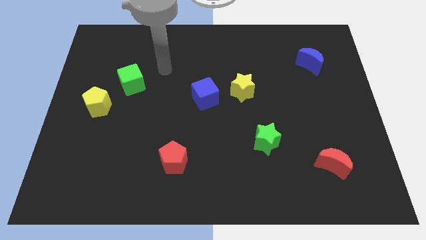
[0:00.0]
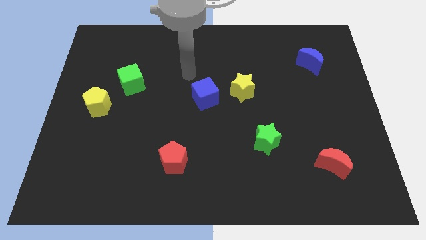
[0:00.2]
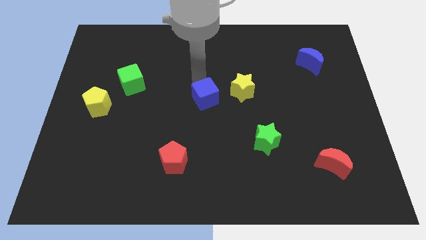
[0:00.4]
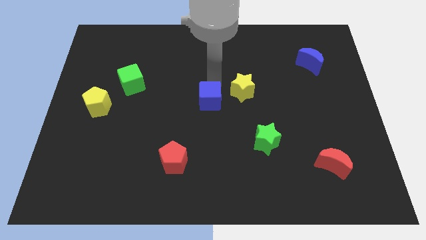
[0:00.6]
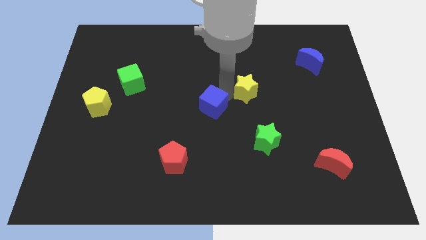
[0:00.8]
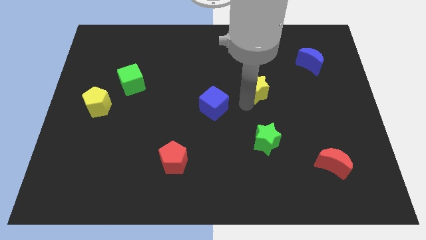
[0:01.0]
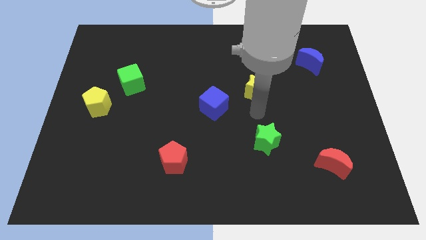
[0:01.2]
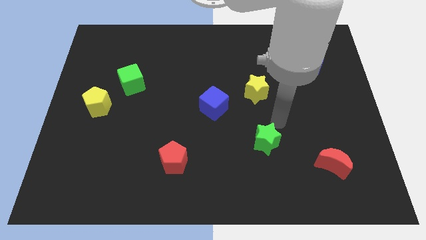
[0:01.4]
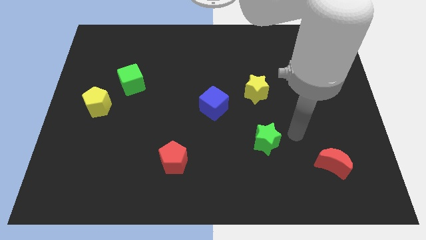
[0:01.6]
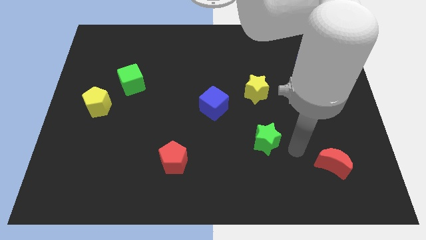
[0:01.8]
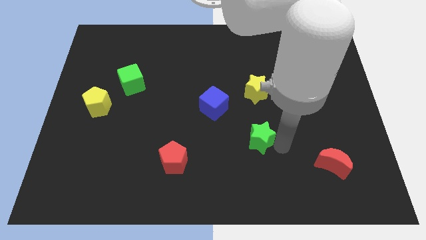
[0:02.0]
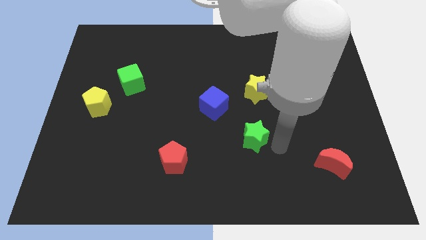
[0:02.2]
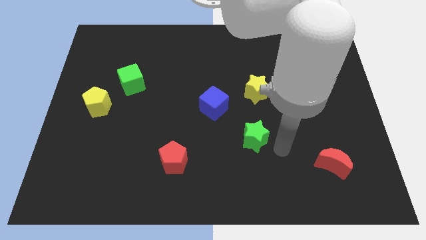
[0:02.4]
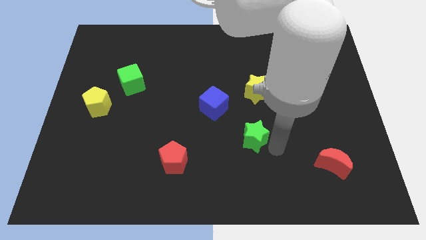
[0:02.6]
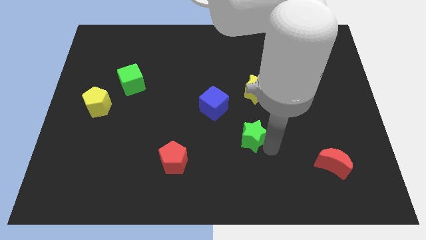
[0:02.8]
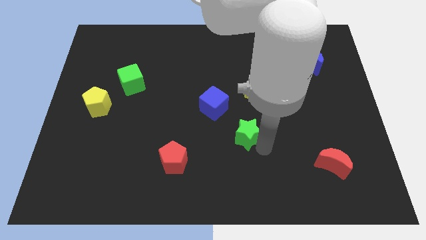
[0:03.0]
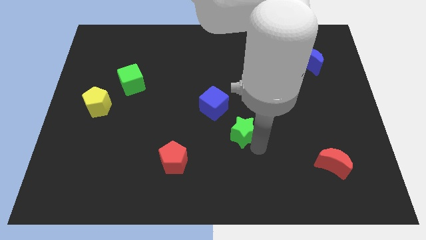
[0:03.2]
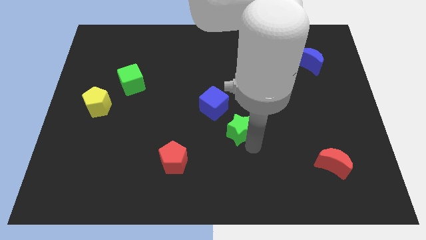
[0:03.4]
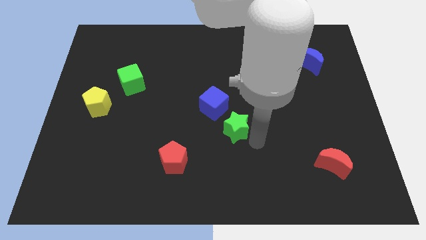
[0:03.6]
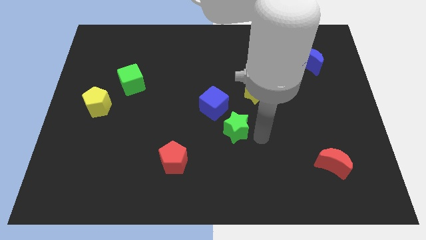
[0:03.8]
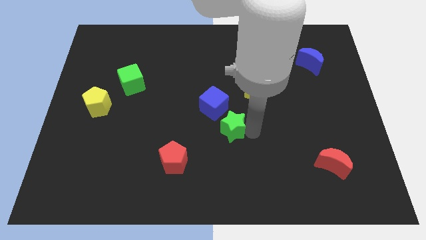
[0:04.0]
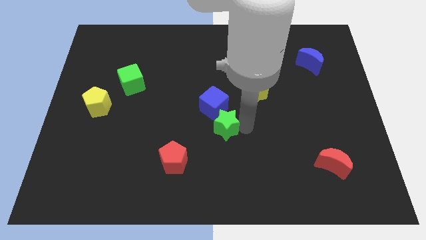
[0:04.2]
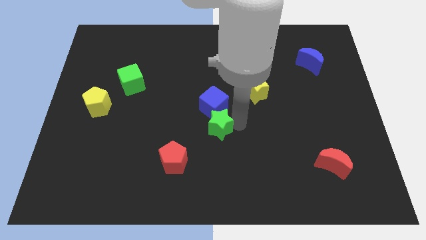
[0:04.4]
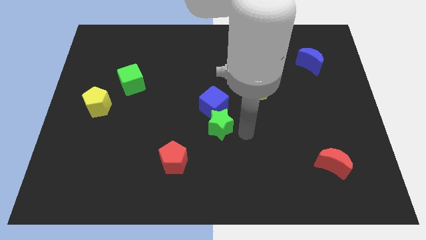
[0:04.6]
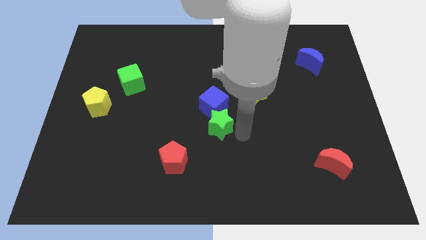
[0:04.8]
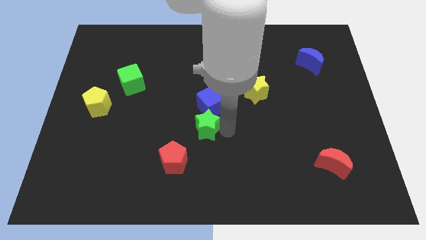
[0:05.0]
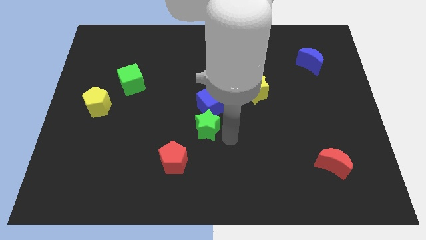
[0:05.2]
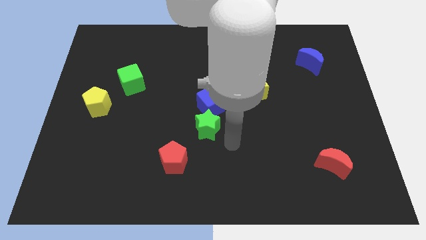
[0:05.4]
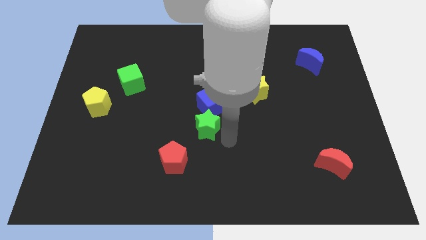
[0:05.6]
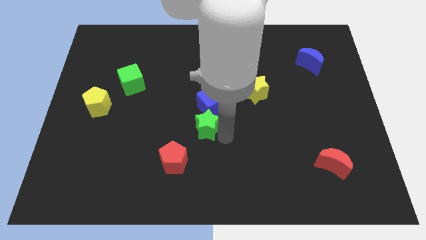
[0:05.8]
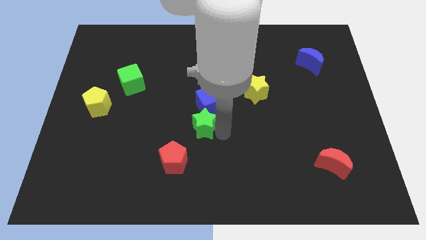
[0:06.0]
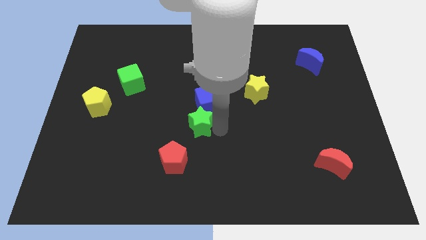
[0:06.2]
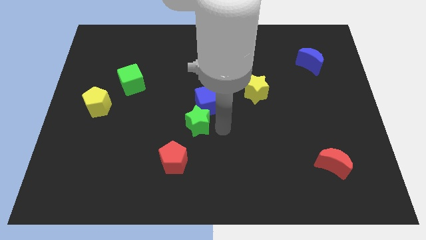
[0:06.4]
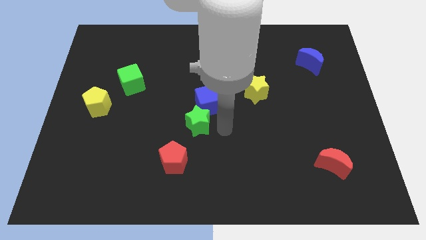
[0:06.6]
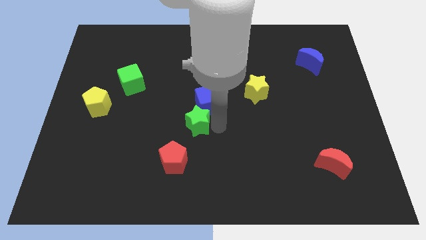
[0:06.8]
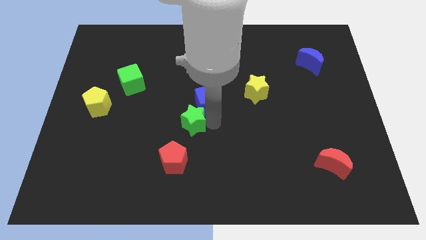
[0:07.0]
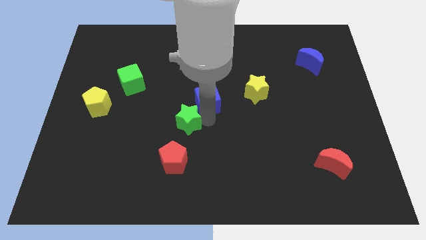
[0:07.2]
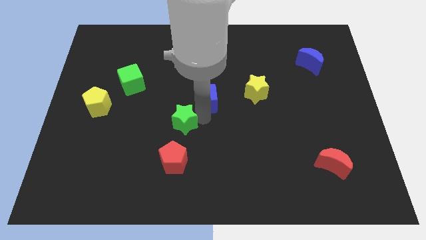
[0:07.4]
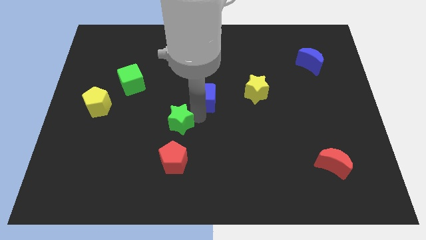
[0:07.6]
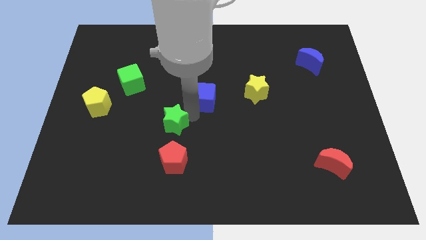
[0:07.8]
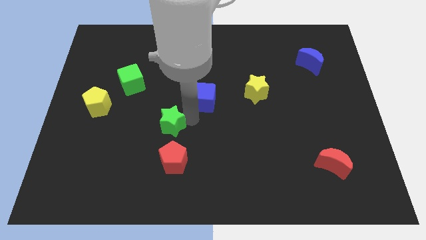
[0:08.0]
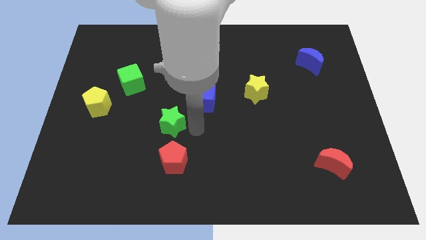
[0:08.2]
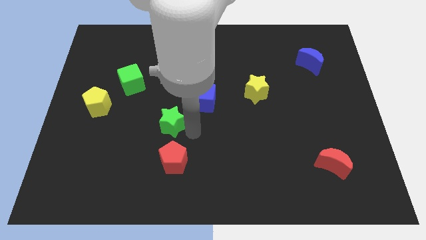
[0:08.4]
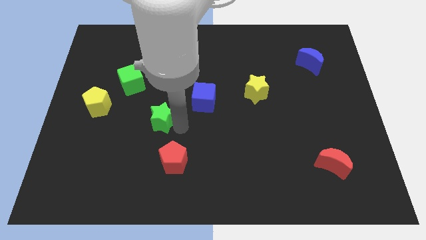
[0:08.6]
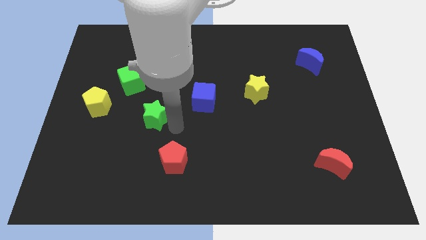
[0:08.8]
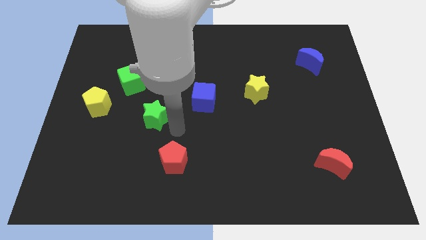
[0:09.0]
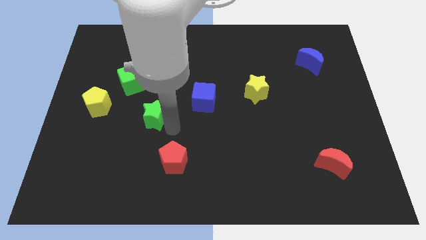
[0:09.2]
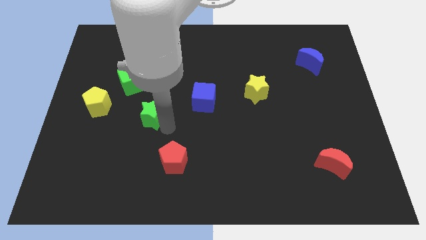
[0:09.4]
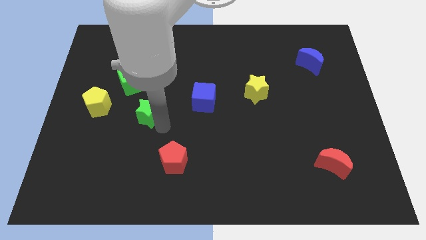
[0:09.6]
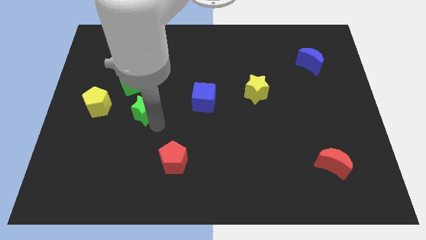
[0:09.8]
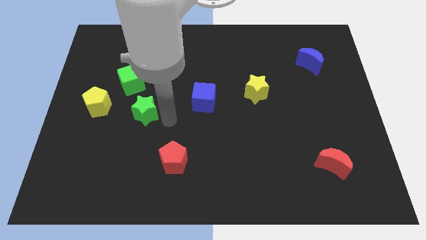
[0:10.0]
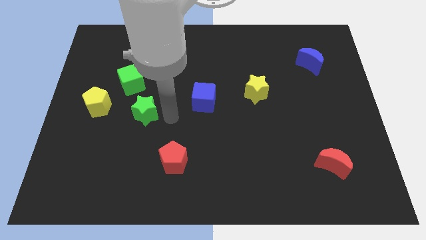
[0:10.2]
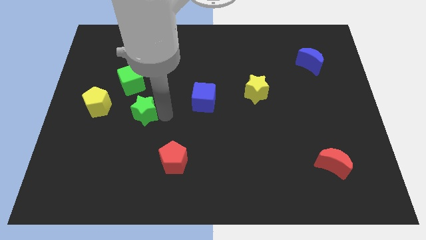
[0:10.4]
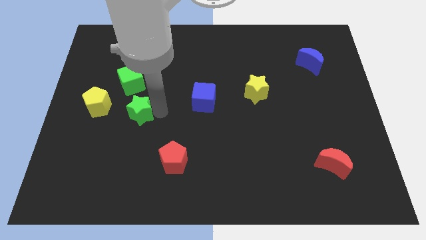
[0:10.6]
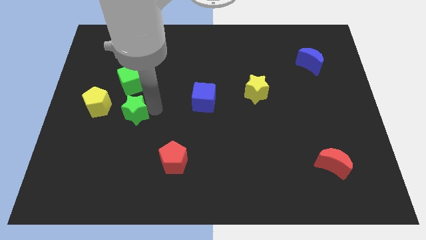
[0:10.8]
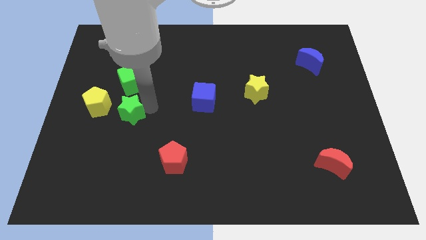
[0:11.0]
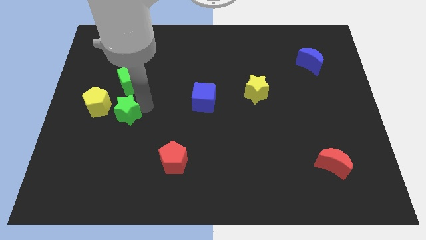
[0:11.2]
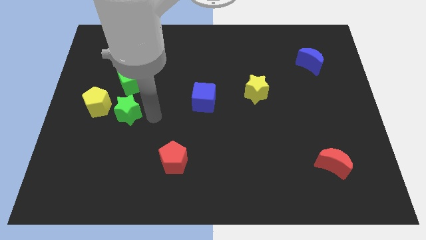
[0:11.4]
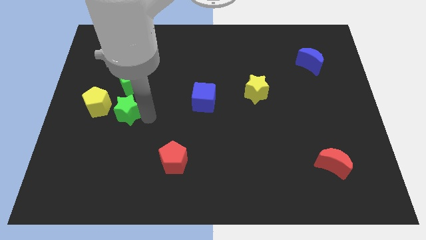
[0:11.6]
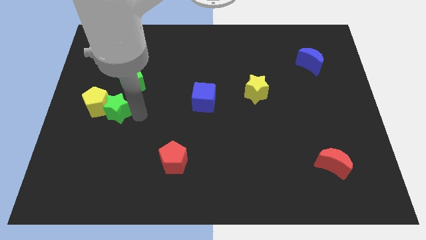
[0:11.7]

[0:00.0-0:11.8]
move the green star to the yellow pentagon

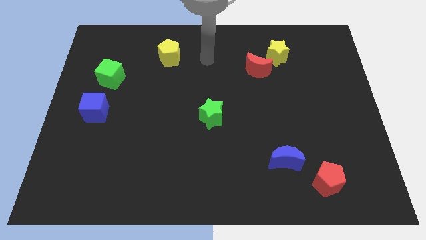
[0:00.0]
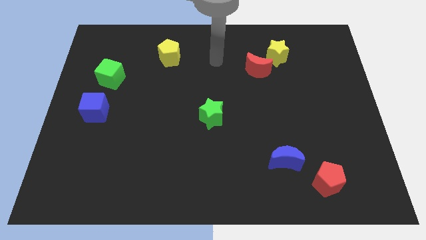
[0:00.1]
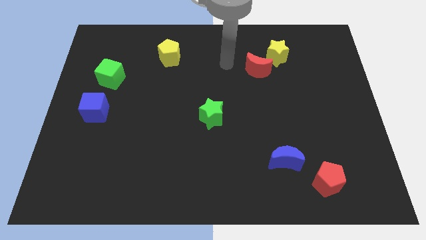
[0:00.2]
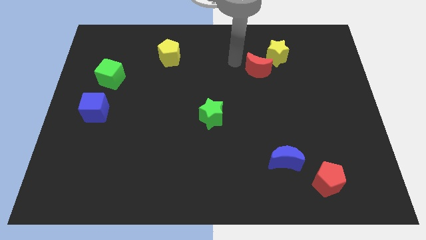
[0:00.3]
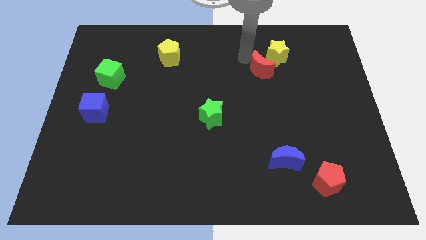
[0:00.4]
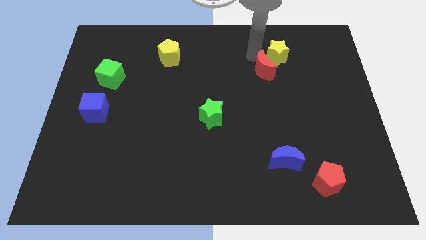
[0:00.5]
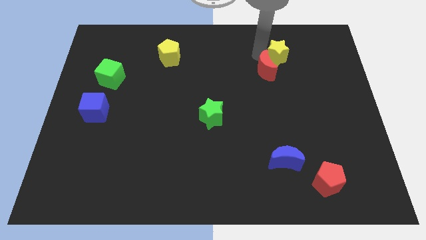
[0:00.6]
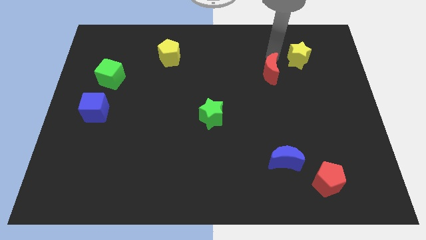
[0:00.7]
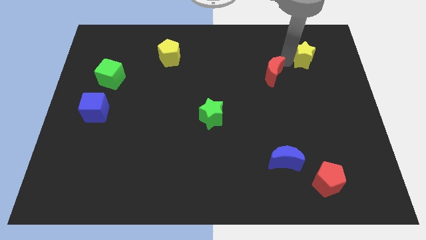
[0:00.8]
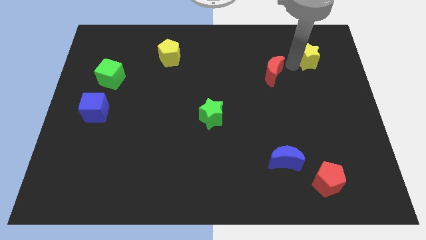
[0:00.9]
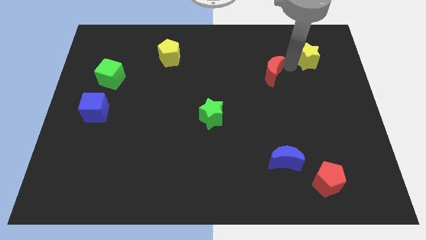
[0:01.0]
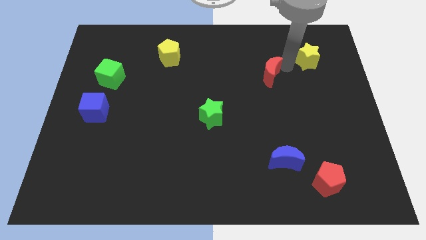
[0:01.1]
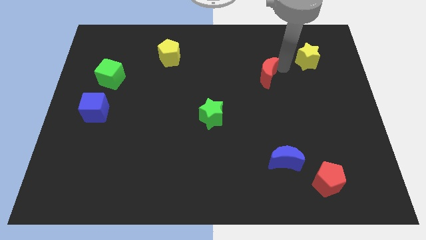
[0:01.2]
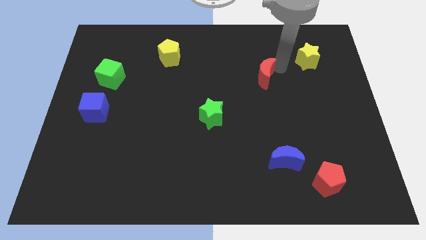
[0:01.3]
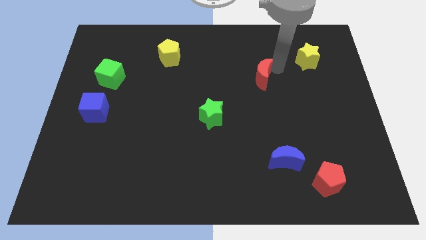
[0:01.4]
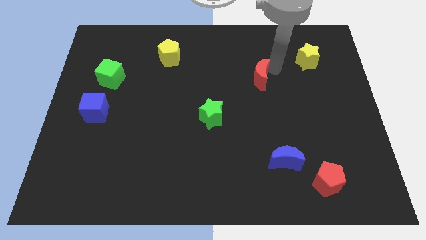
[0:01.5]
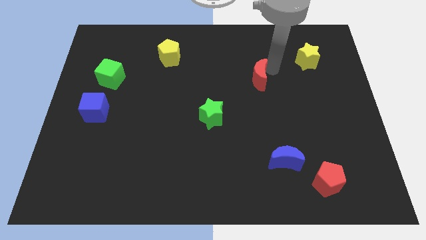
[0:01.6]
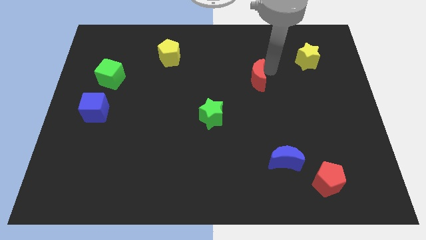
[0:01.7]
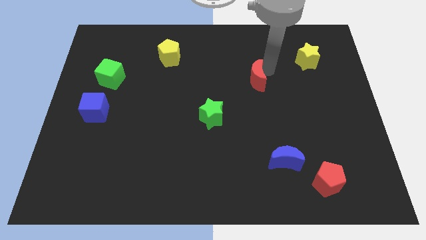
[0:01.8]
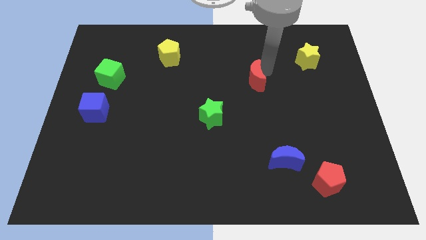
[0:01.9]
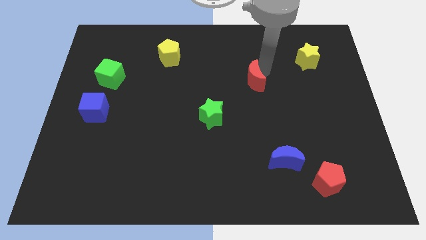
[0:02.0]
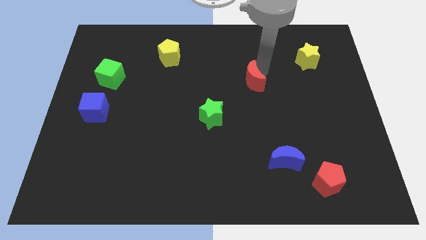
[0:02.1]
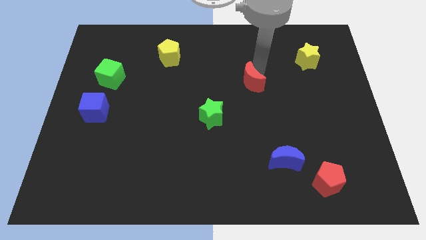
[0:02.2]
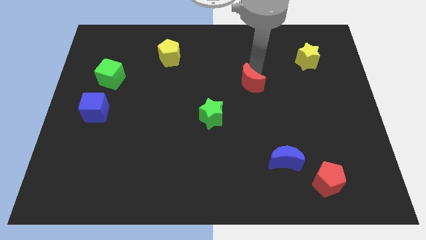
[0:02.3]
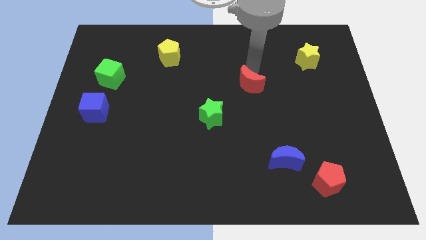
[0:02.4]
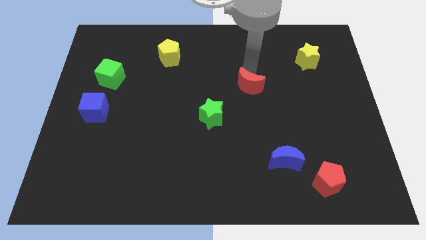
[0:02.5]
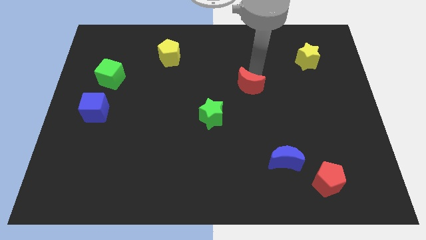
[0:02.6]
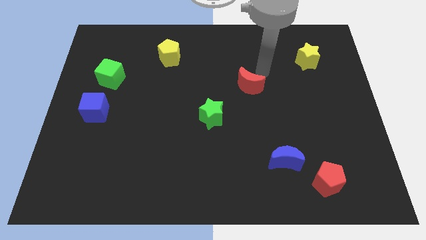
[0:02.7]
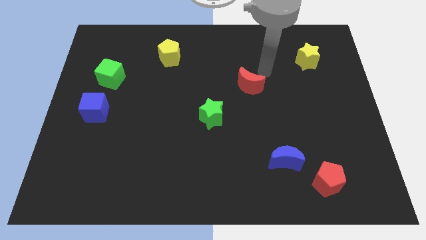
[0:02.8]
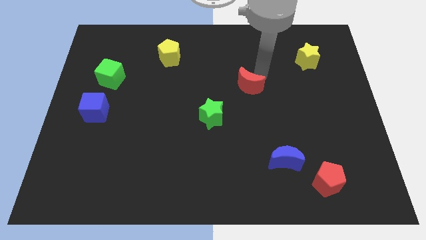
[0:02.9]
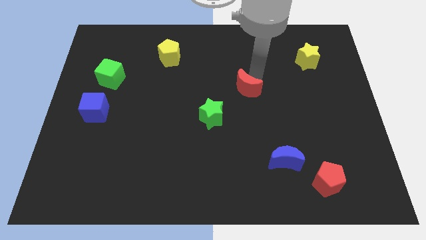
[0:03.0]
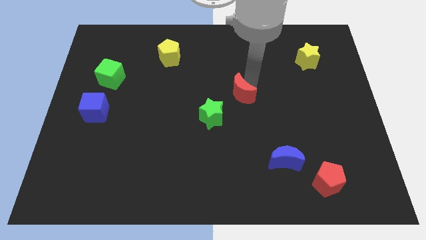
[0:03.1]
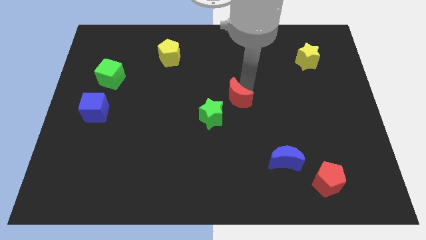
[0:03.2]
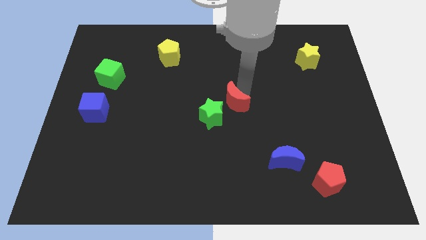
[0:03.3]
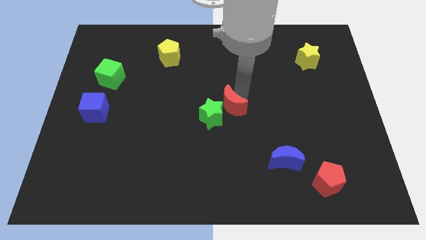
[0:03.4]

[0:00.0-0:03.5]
move the red moon close to the green star
